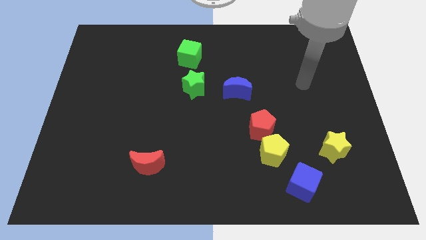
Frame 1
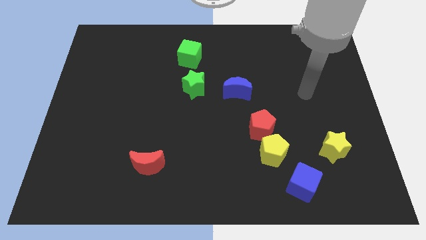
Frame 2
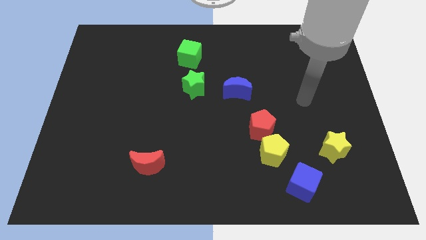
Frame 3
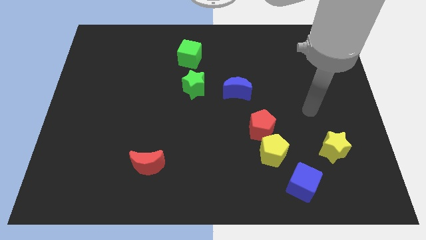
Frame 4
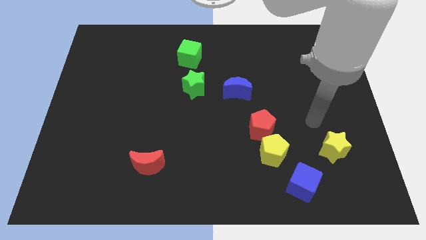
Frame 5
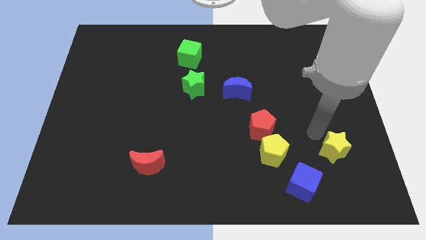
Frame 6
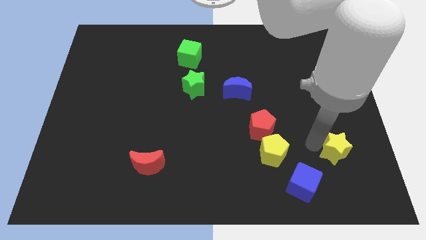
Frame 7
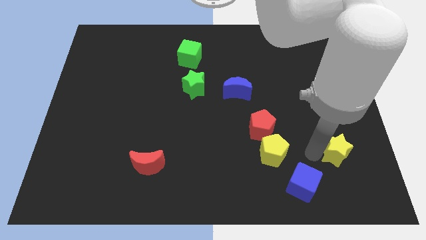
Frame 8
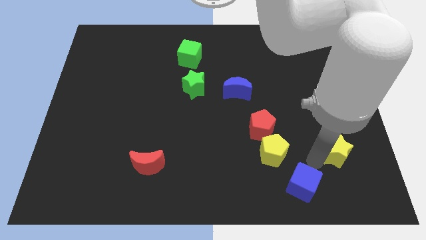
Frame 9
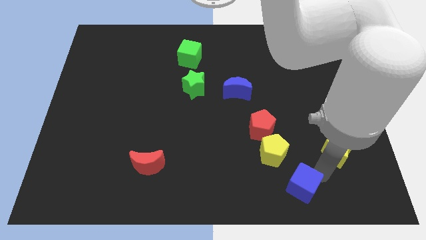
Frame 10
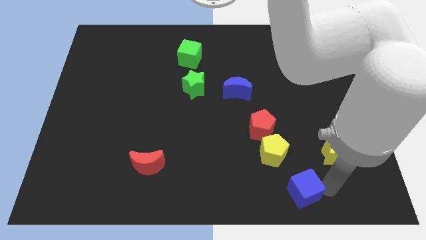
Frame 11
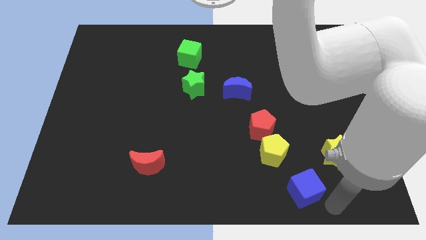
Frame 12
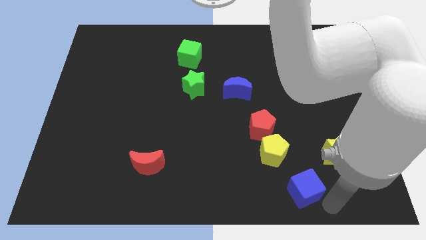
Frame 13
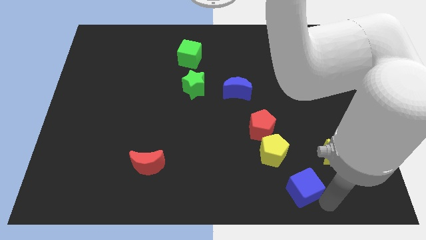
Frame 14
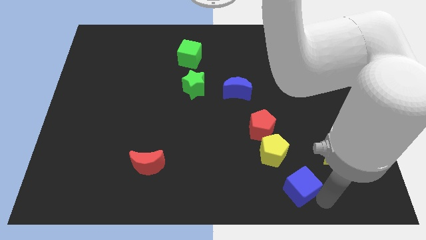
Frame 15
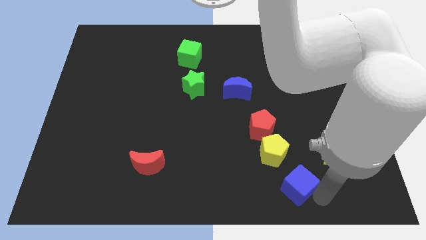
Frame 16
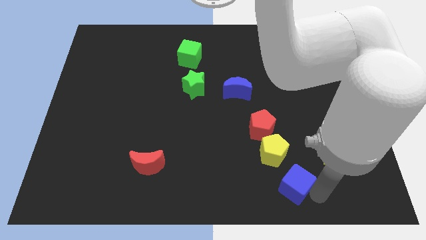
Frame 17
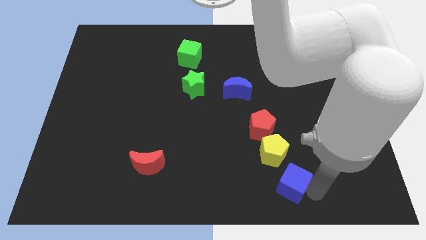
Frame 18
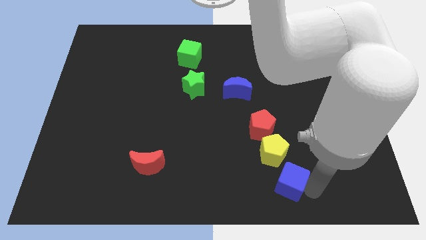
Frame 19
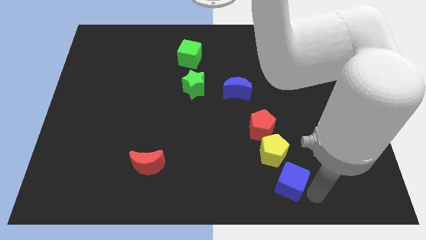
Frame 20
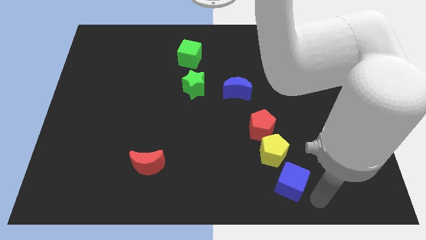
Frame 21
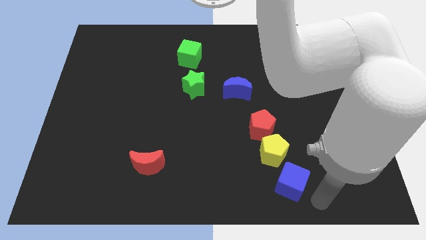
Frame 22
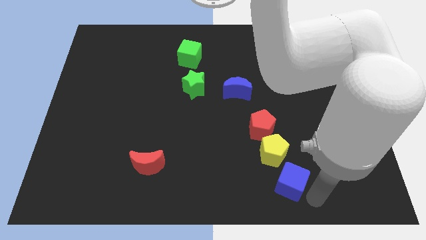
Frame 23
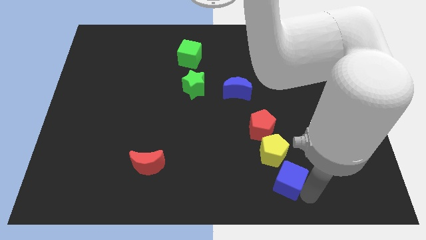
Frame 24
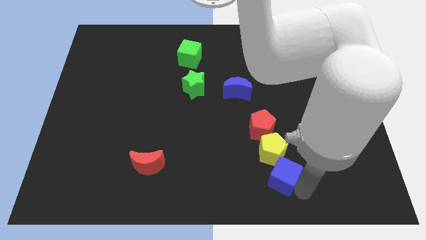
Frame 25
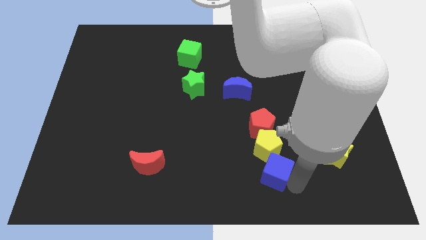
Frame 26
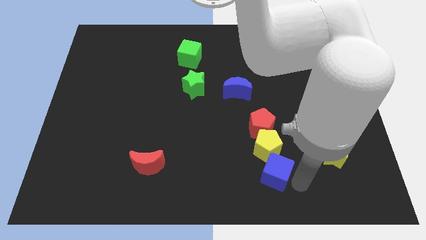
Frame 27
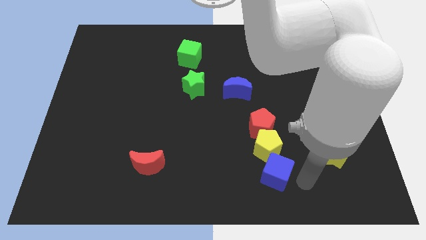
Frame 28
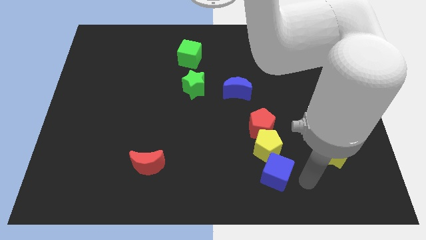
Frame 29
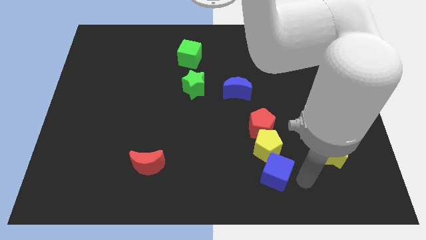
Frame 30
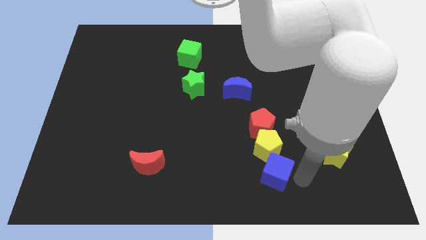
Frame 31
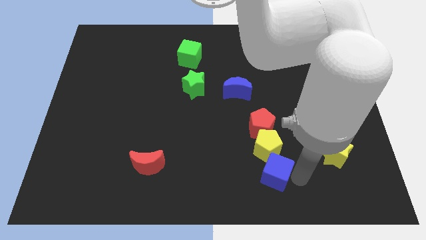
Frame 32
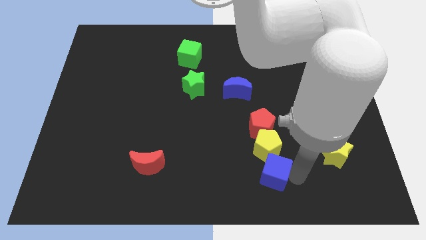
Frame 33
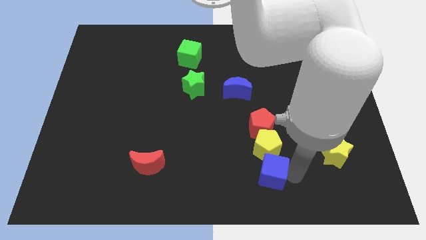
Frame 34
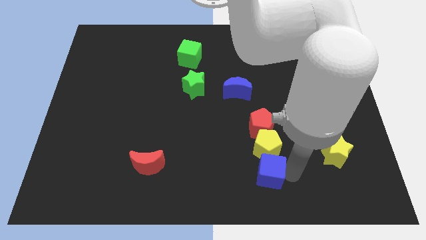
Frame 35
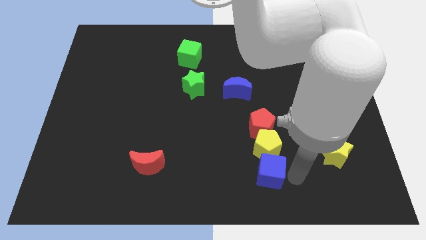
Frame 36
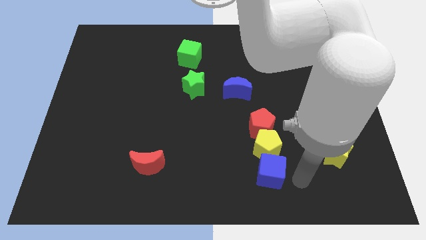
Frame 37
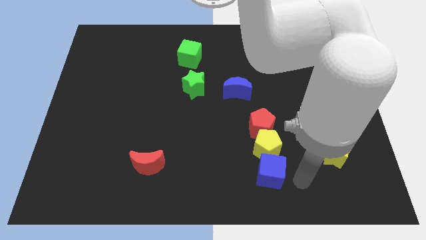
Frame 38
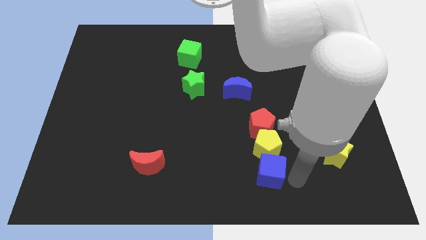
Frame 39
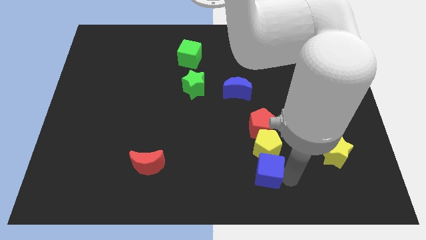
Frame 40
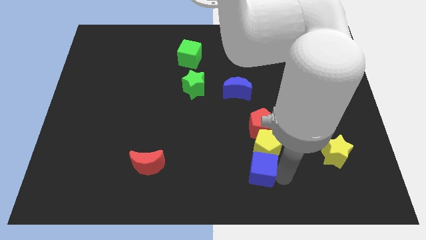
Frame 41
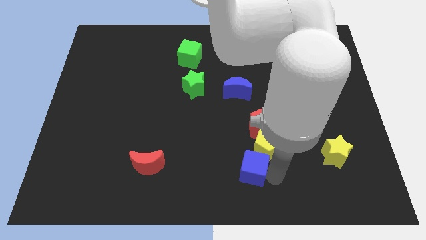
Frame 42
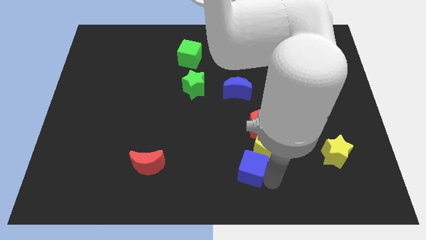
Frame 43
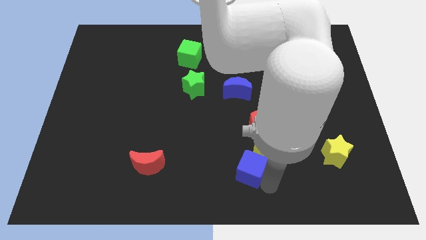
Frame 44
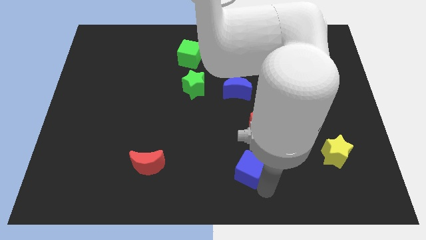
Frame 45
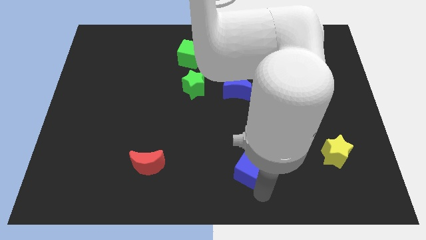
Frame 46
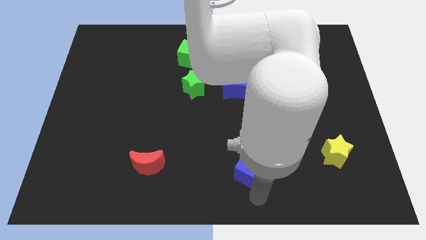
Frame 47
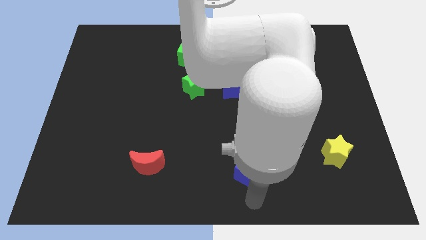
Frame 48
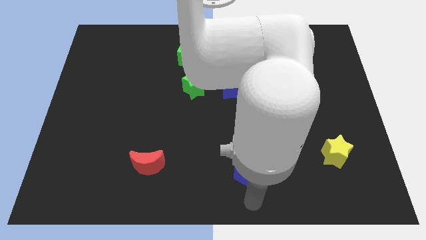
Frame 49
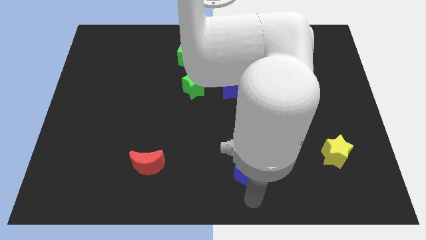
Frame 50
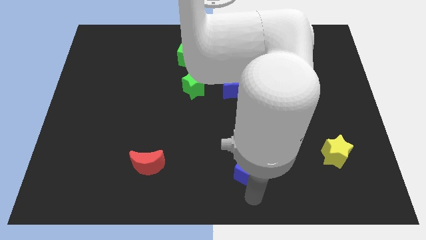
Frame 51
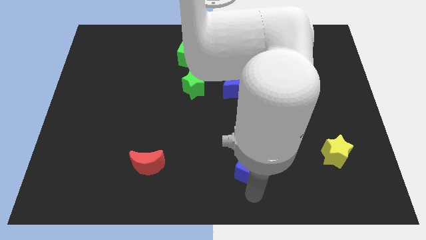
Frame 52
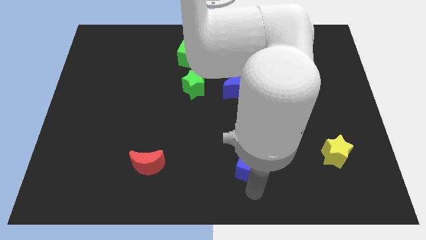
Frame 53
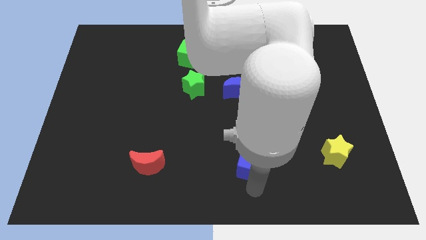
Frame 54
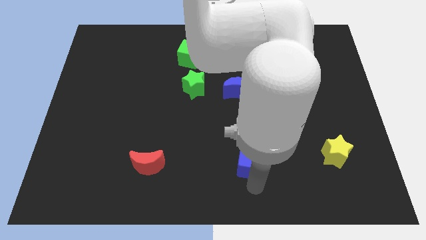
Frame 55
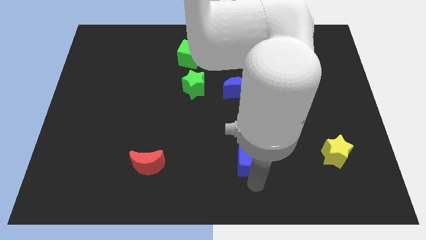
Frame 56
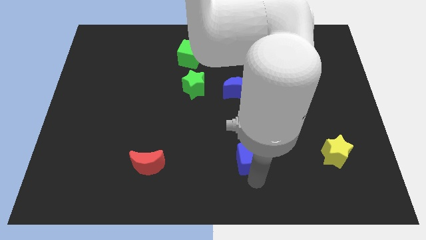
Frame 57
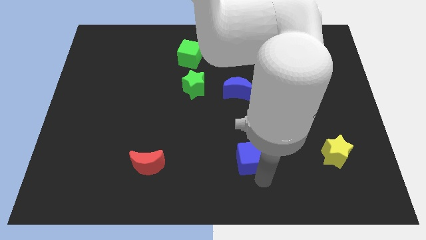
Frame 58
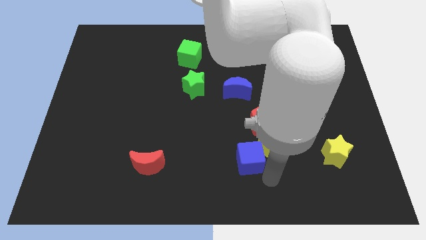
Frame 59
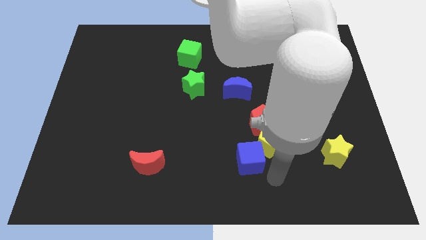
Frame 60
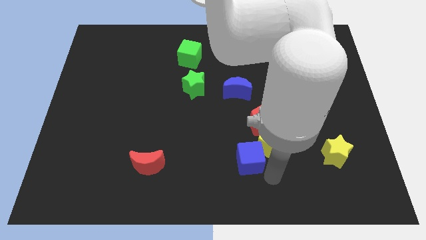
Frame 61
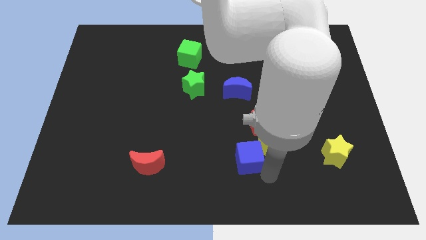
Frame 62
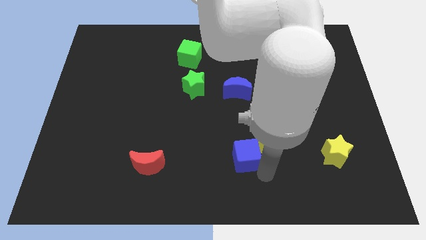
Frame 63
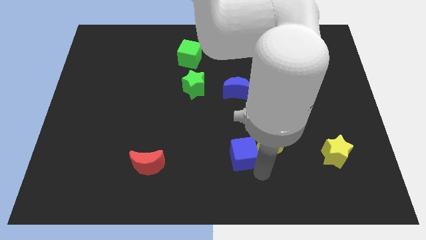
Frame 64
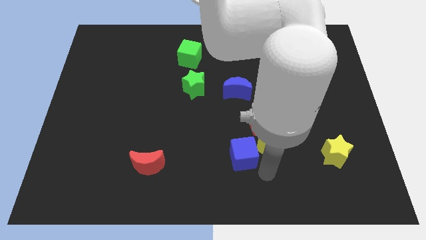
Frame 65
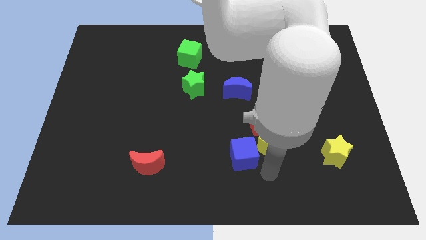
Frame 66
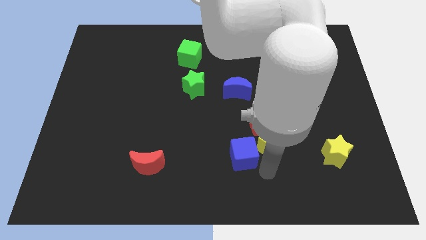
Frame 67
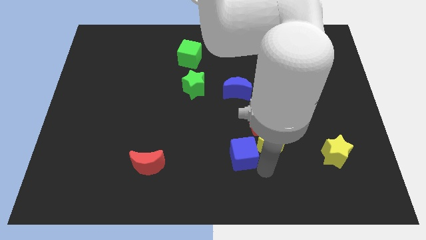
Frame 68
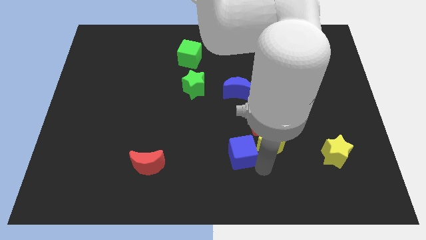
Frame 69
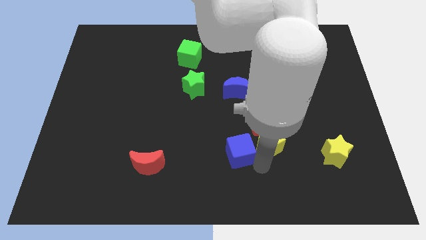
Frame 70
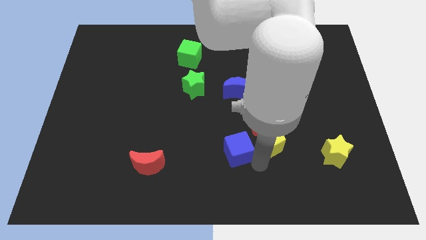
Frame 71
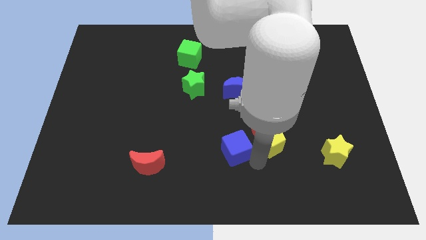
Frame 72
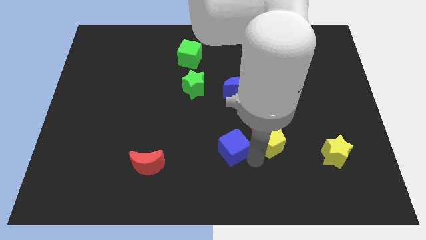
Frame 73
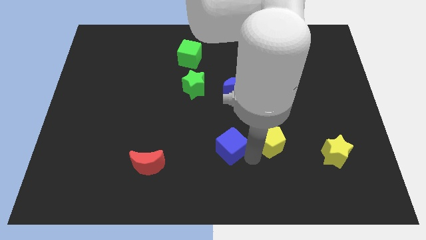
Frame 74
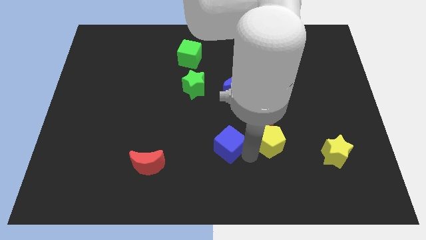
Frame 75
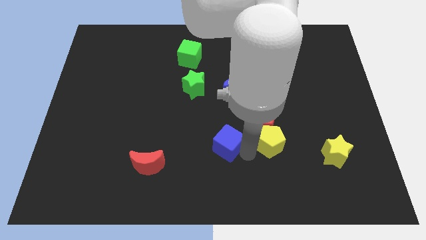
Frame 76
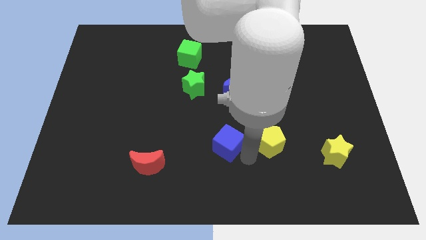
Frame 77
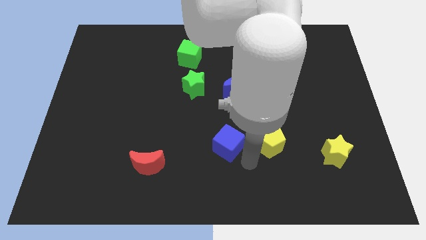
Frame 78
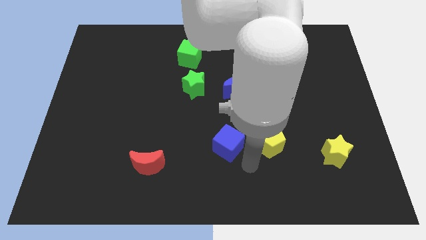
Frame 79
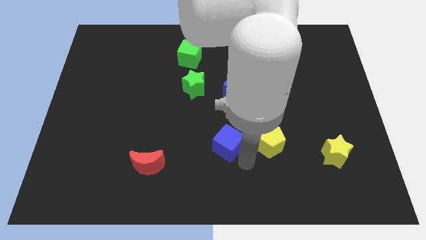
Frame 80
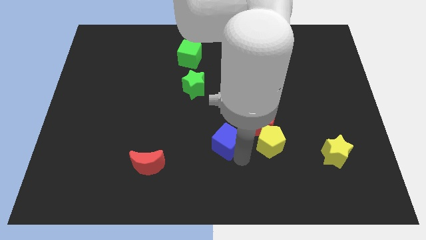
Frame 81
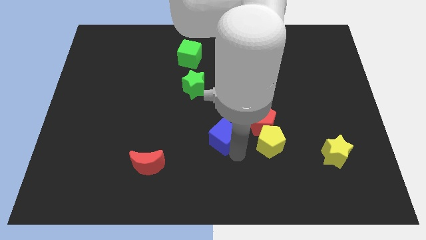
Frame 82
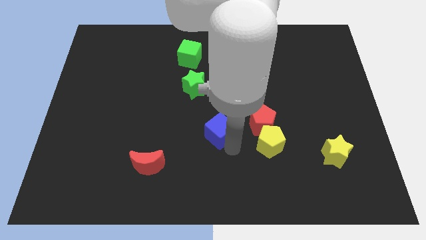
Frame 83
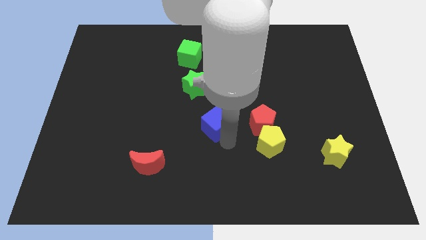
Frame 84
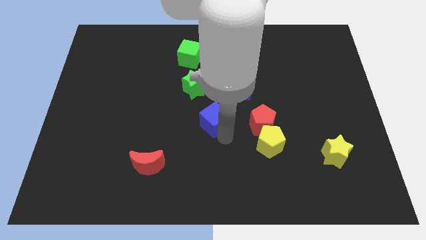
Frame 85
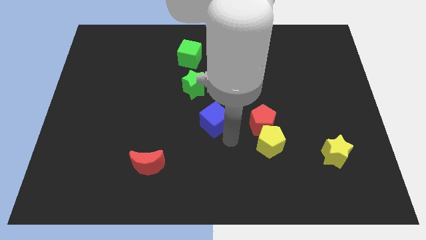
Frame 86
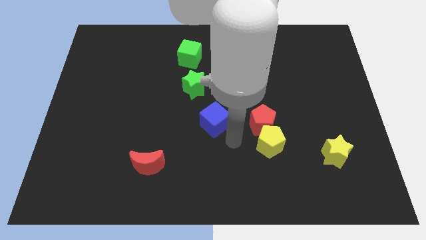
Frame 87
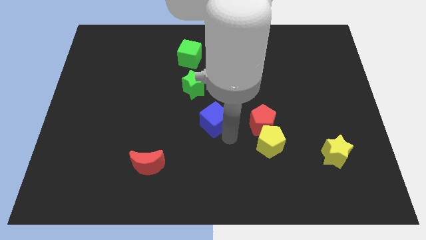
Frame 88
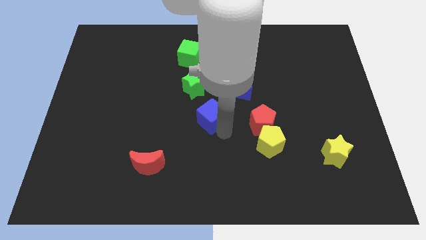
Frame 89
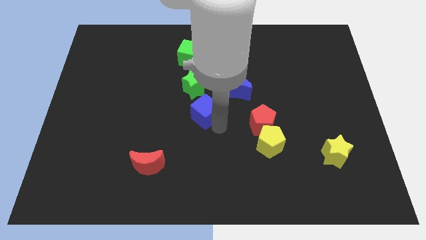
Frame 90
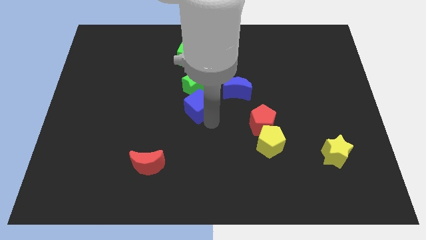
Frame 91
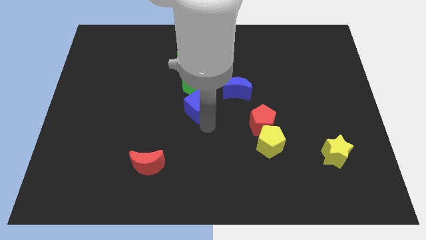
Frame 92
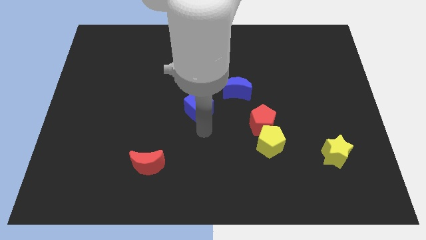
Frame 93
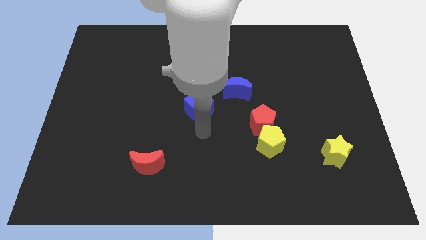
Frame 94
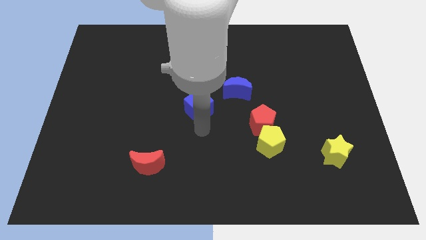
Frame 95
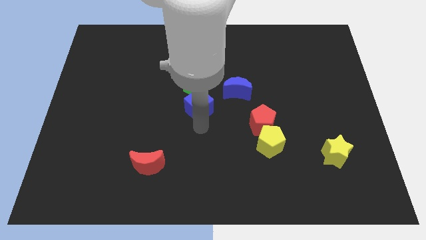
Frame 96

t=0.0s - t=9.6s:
slide the blue cube to the green star
